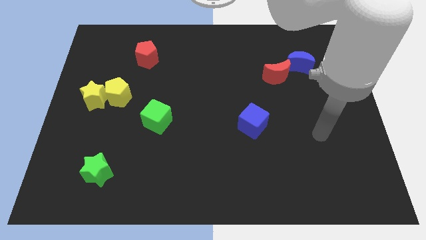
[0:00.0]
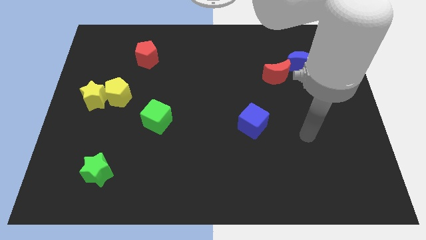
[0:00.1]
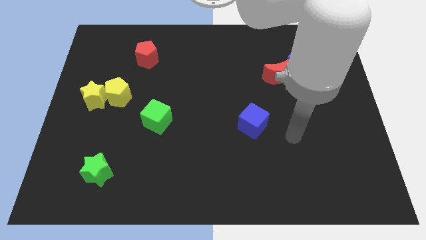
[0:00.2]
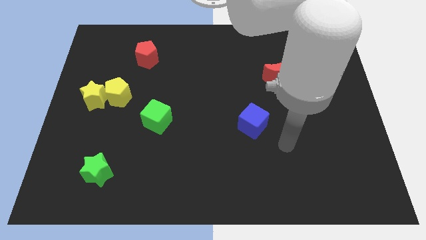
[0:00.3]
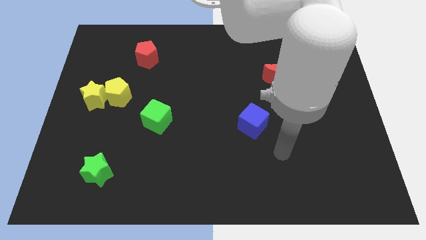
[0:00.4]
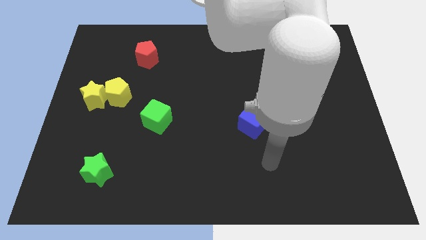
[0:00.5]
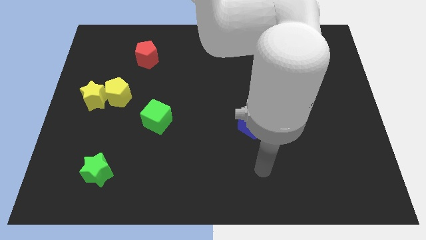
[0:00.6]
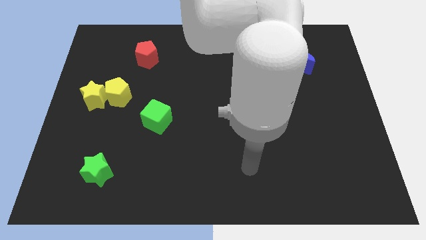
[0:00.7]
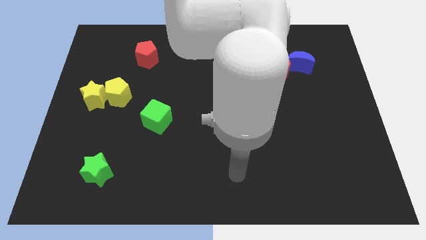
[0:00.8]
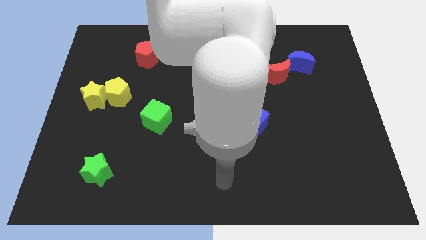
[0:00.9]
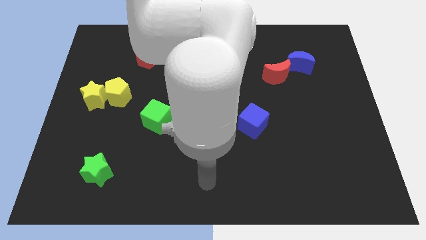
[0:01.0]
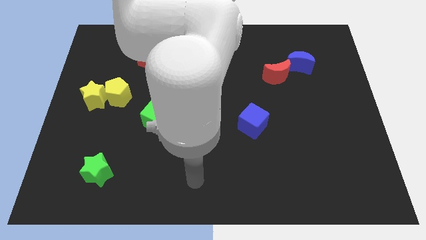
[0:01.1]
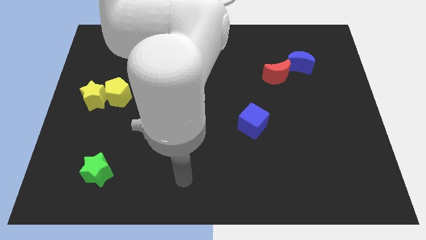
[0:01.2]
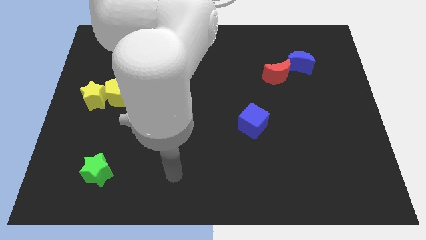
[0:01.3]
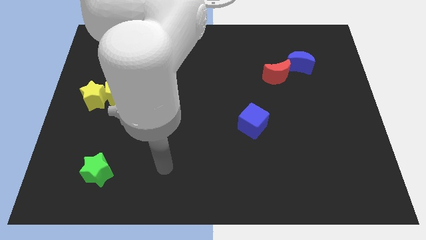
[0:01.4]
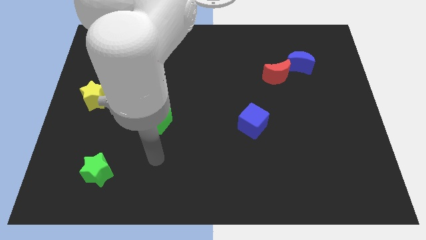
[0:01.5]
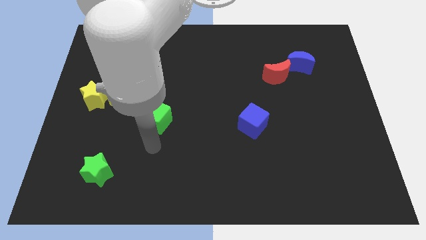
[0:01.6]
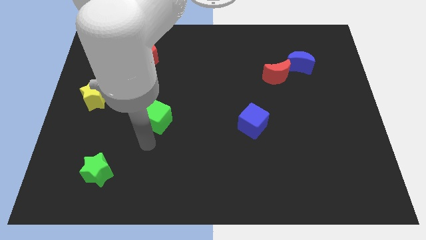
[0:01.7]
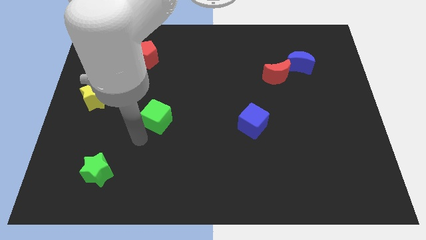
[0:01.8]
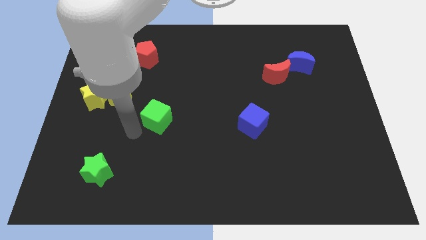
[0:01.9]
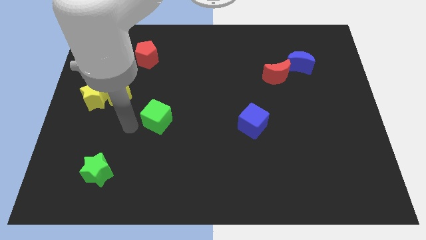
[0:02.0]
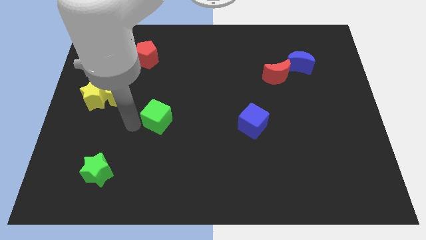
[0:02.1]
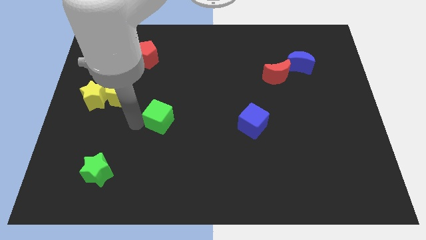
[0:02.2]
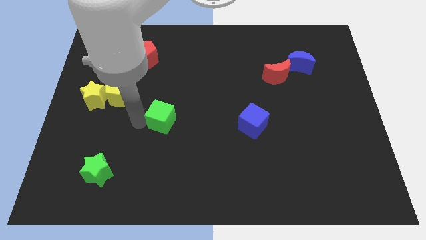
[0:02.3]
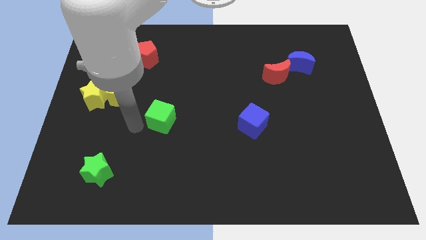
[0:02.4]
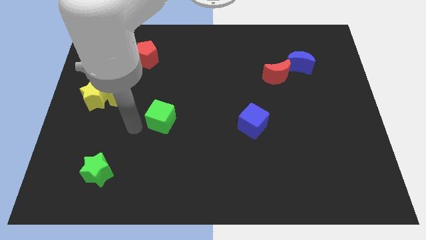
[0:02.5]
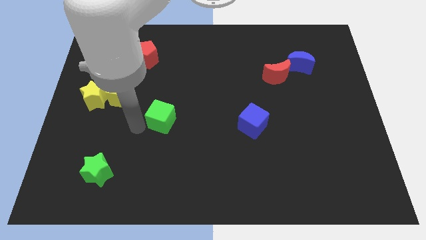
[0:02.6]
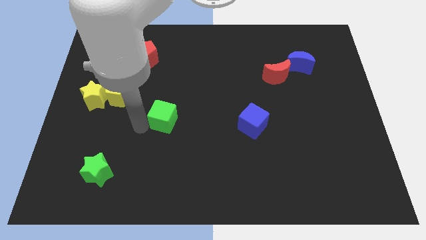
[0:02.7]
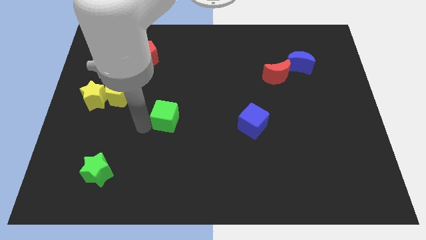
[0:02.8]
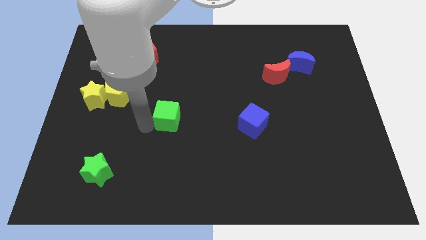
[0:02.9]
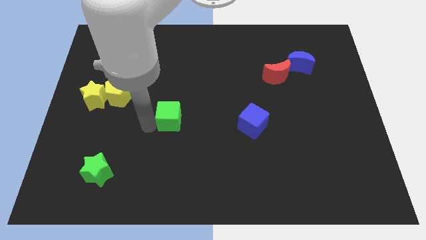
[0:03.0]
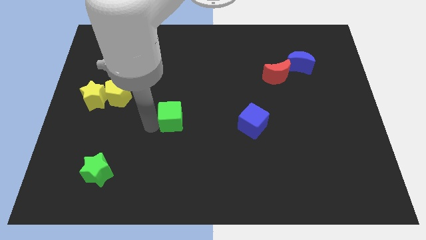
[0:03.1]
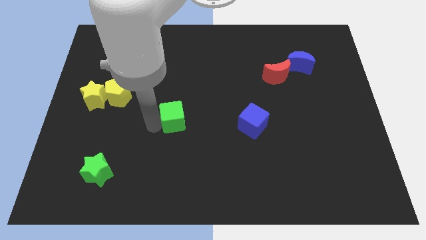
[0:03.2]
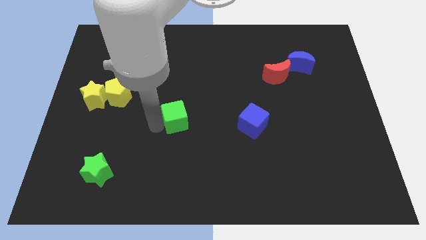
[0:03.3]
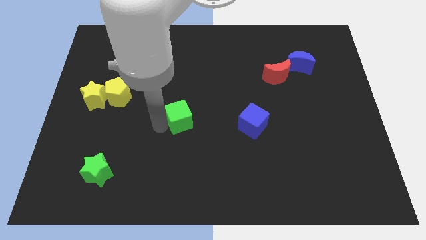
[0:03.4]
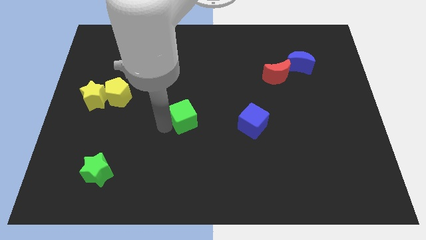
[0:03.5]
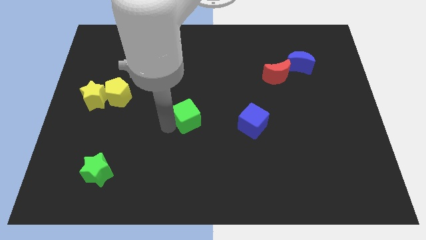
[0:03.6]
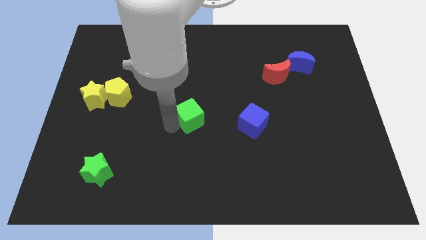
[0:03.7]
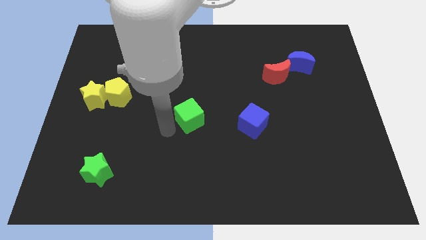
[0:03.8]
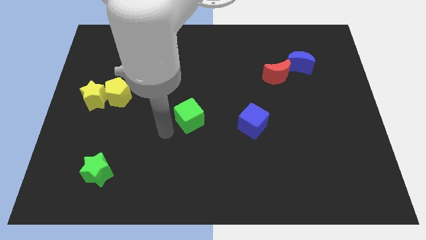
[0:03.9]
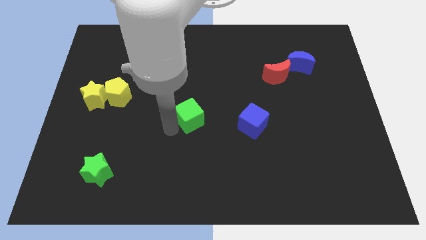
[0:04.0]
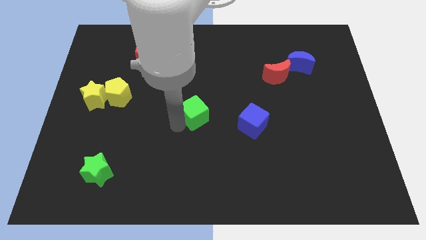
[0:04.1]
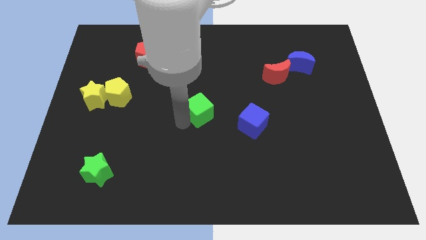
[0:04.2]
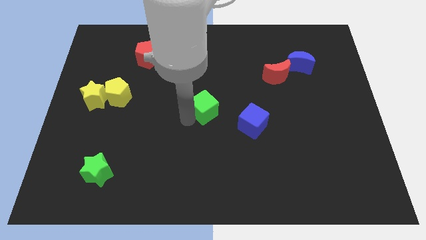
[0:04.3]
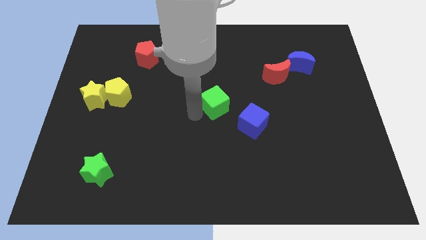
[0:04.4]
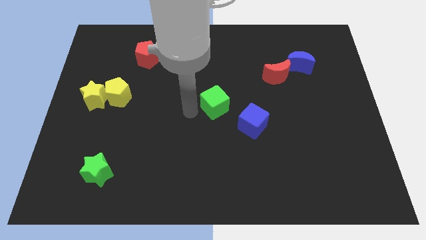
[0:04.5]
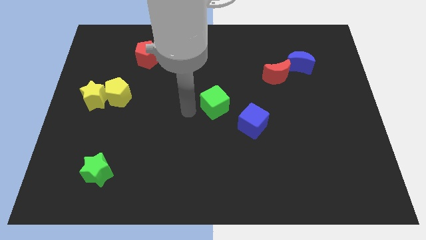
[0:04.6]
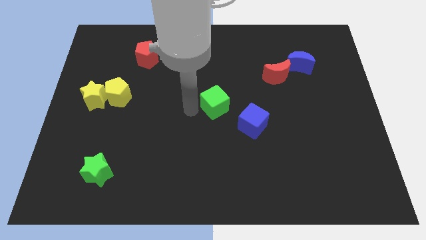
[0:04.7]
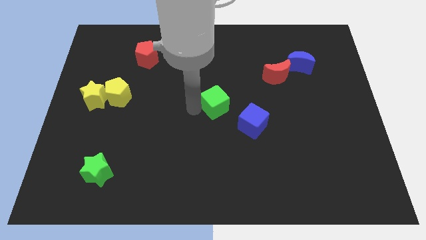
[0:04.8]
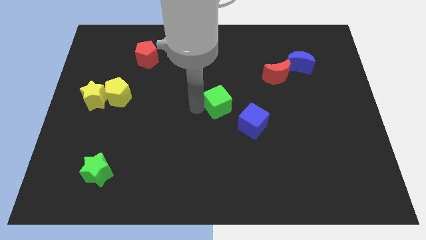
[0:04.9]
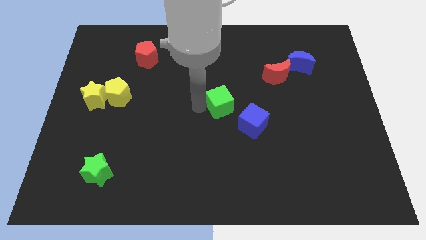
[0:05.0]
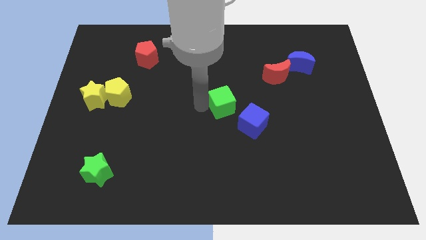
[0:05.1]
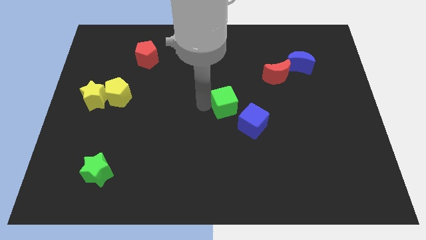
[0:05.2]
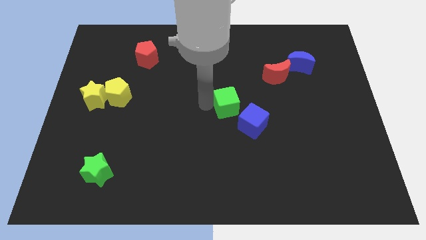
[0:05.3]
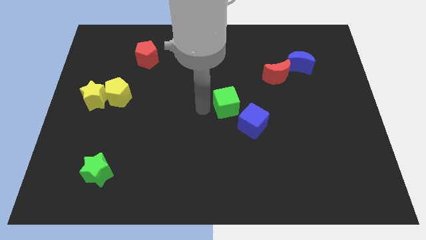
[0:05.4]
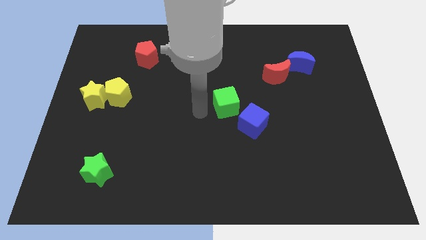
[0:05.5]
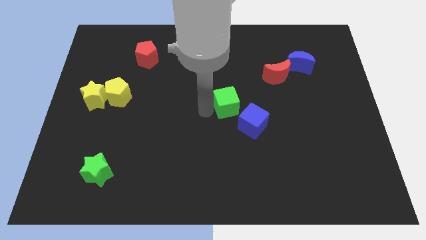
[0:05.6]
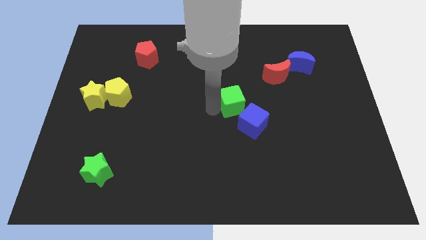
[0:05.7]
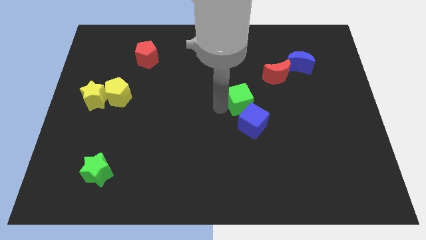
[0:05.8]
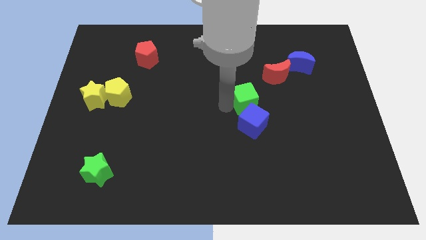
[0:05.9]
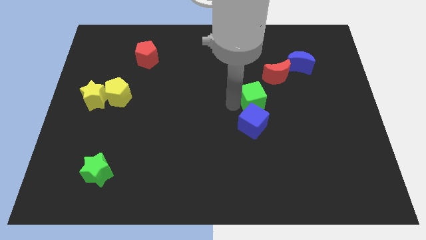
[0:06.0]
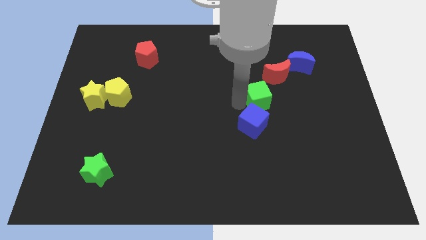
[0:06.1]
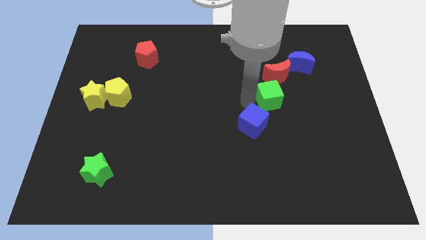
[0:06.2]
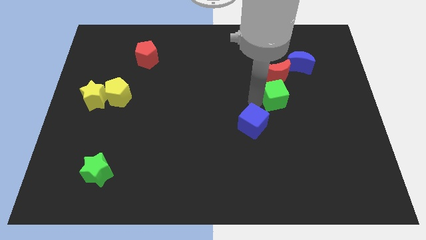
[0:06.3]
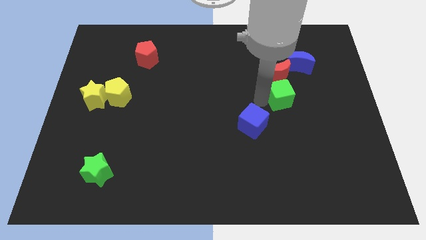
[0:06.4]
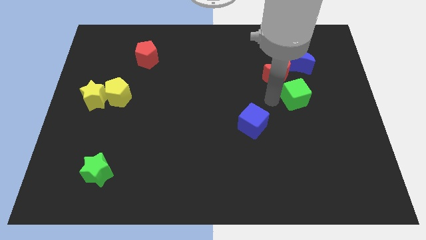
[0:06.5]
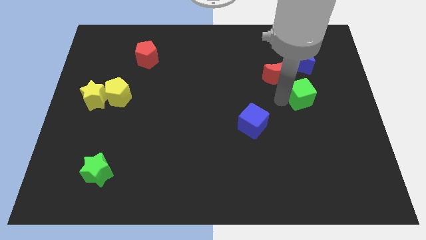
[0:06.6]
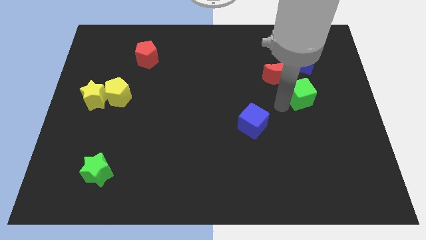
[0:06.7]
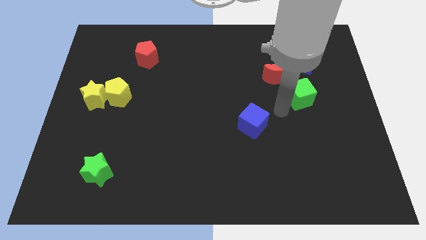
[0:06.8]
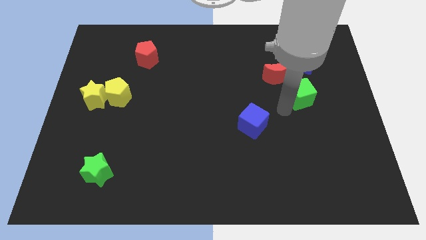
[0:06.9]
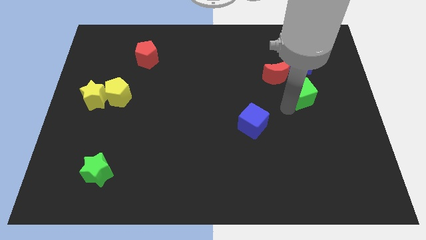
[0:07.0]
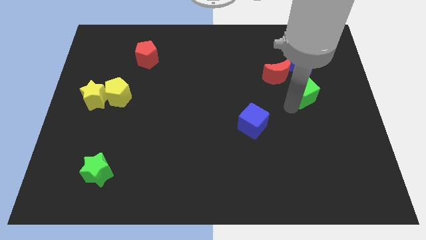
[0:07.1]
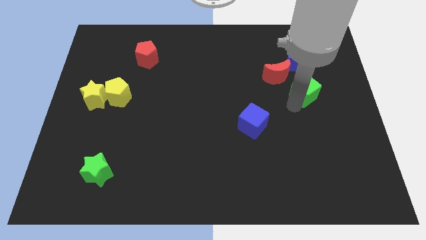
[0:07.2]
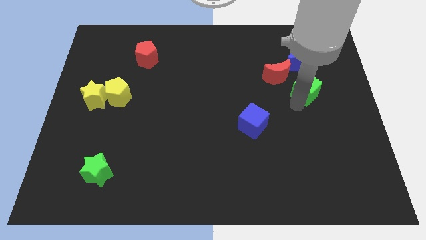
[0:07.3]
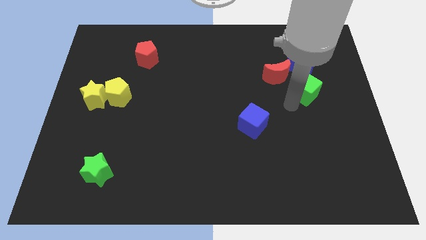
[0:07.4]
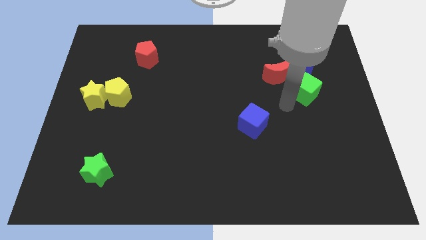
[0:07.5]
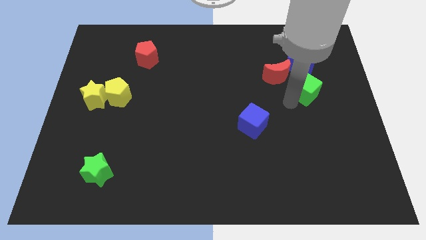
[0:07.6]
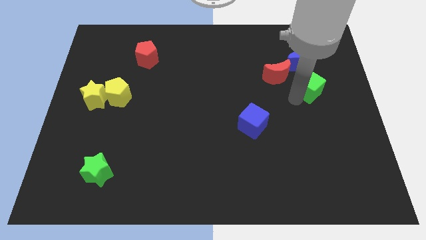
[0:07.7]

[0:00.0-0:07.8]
put the green cube to the bottom right side of the blue moon
